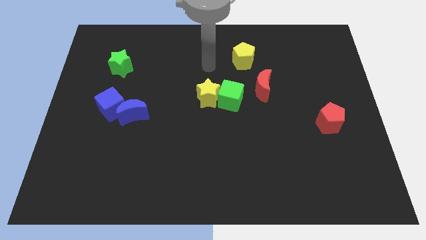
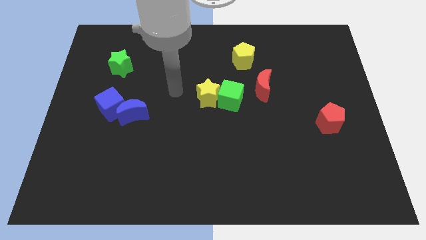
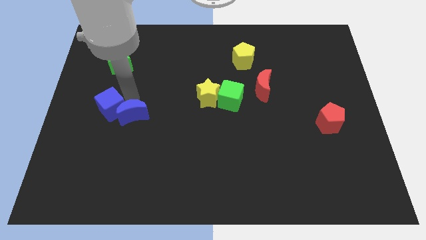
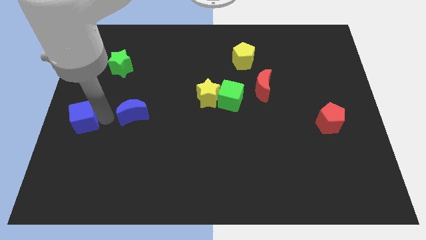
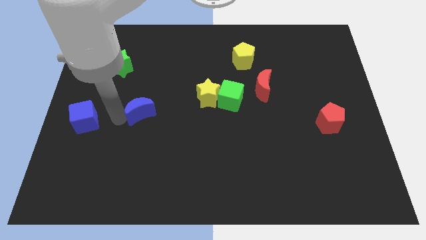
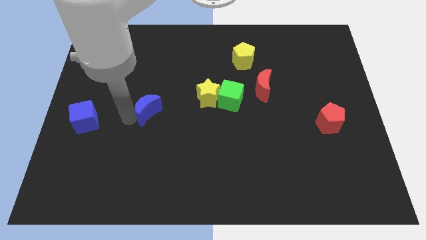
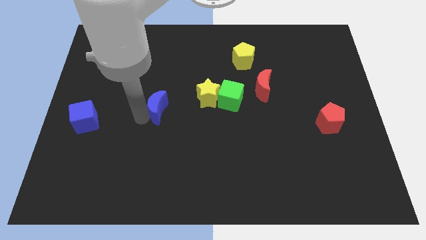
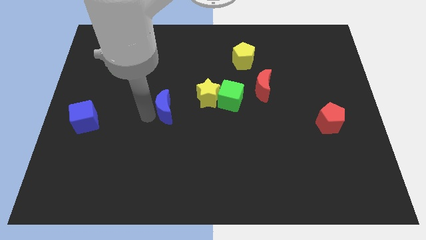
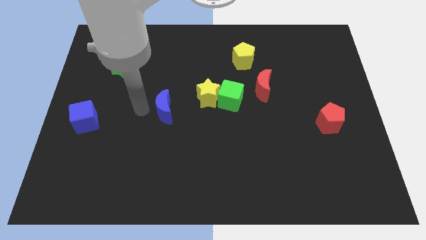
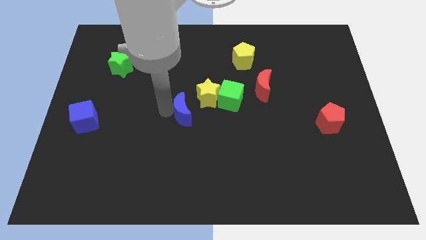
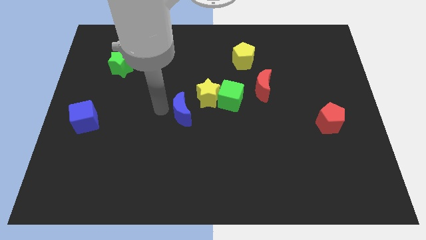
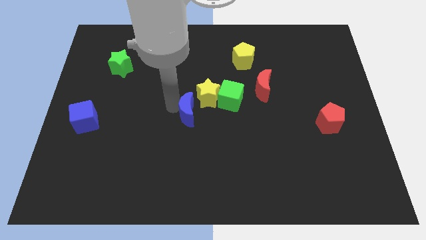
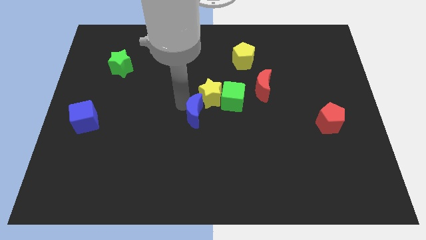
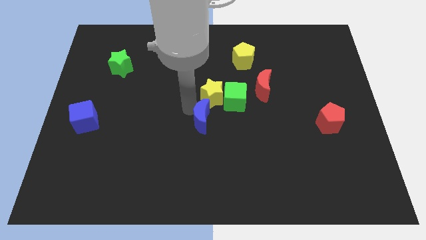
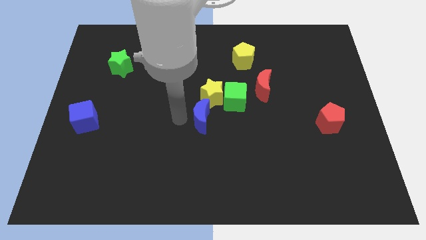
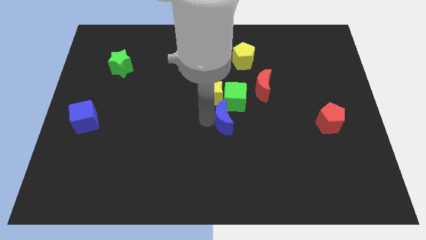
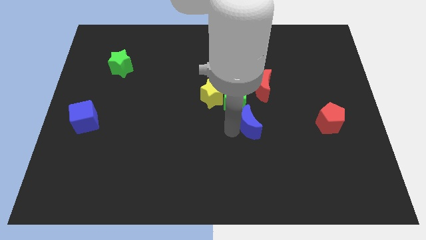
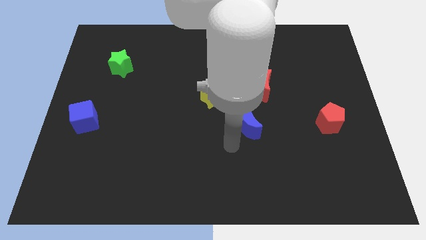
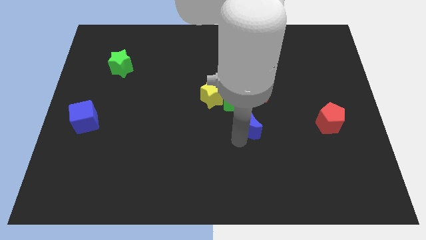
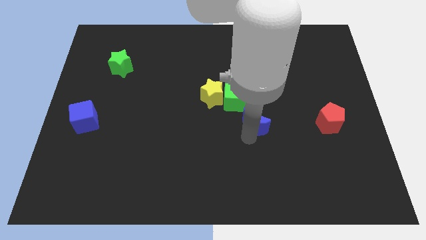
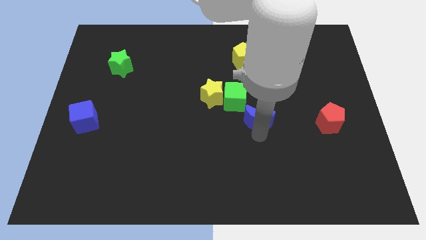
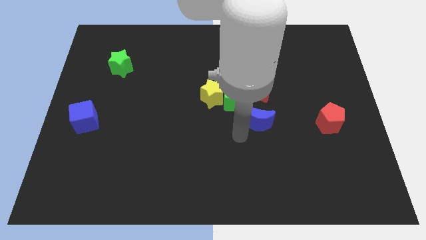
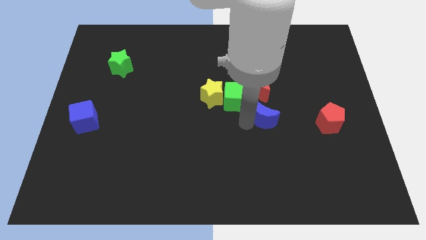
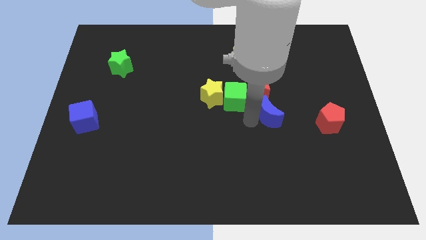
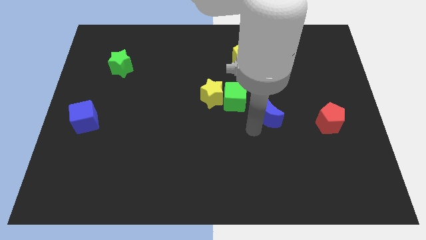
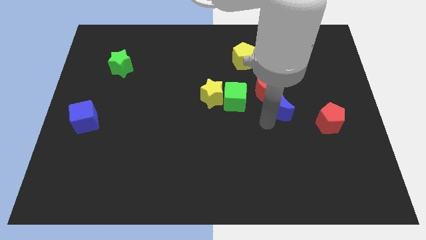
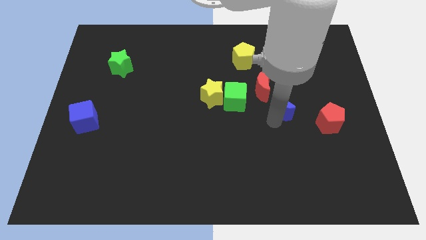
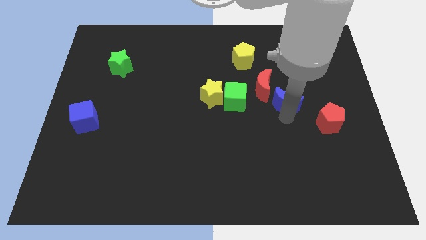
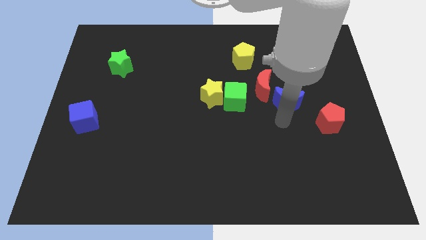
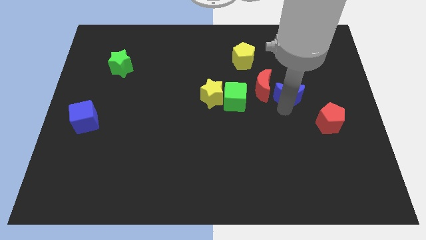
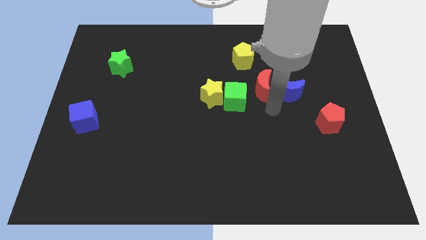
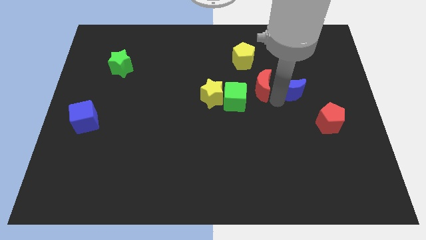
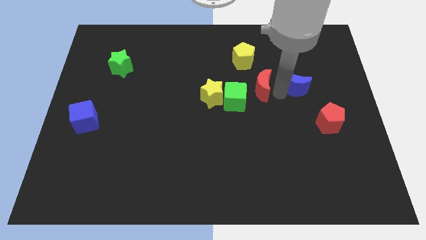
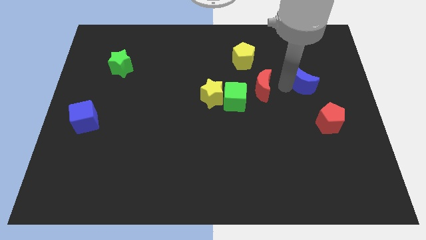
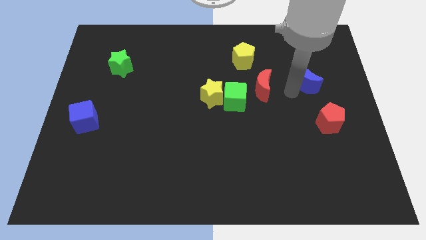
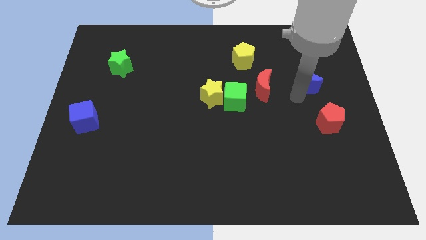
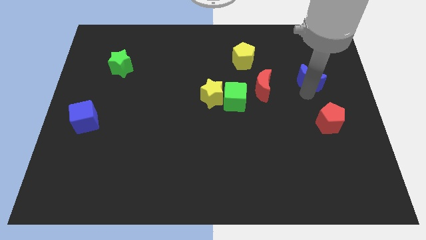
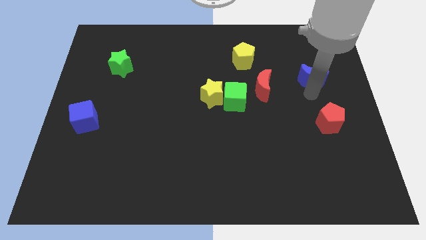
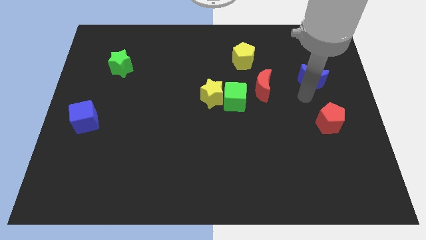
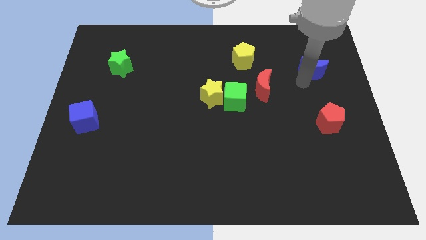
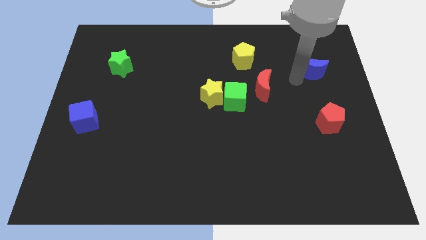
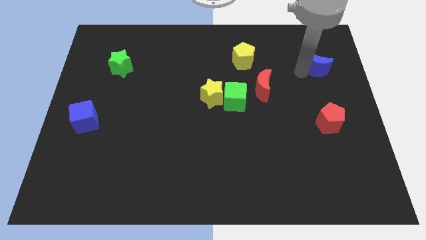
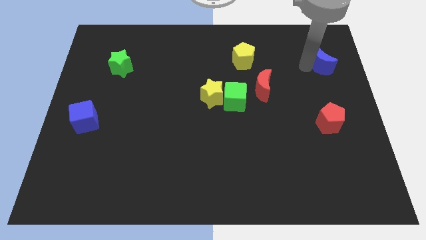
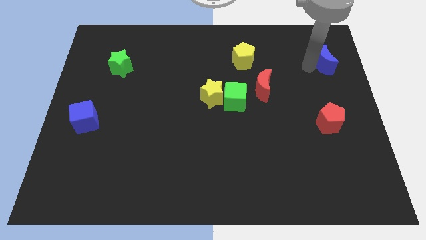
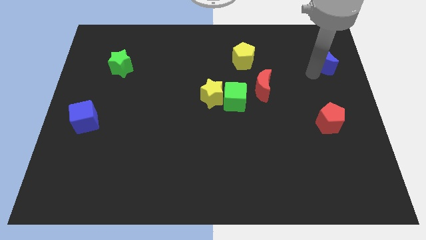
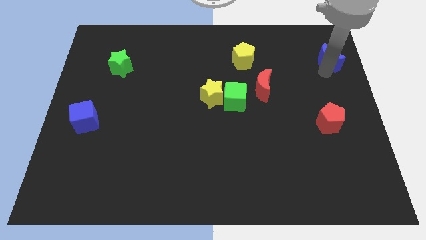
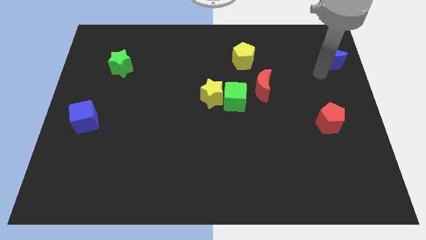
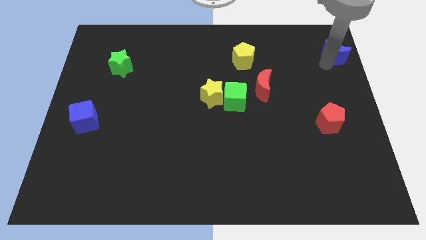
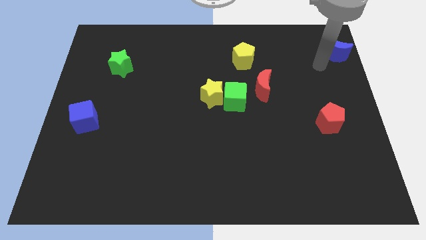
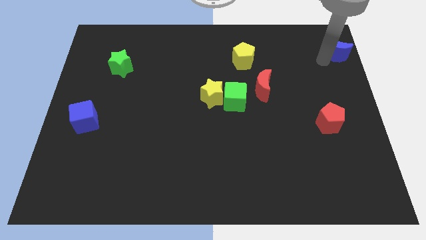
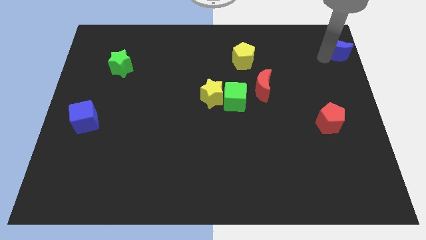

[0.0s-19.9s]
move the blue moon to the top right corner

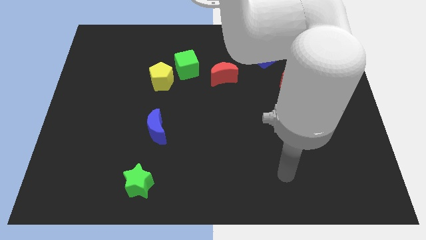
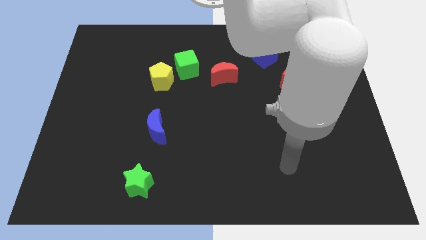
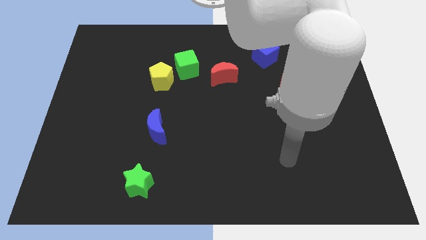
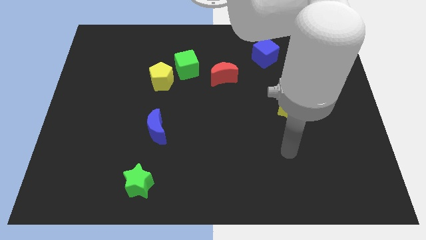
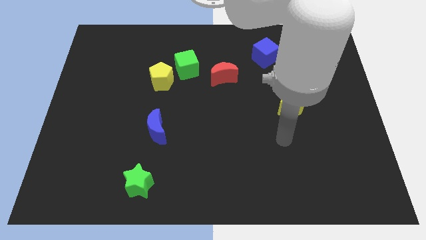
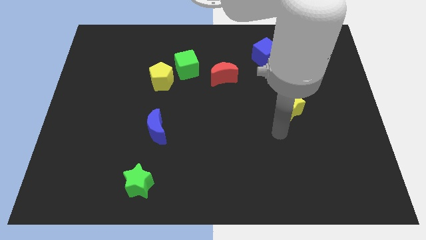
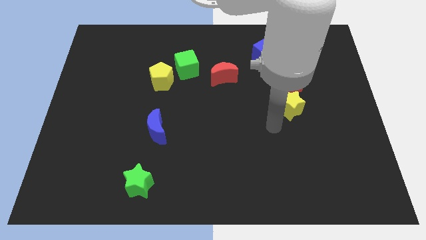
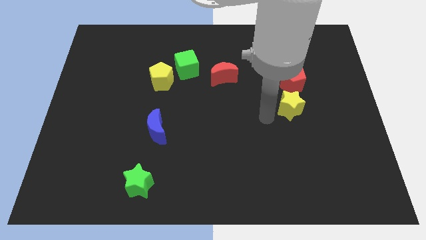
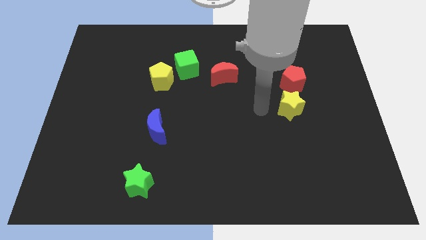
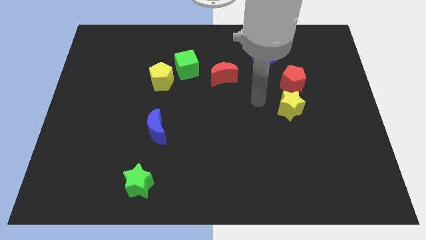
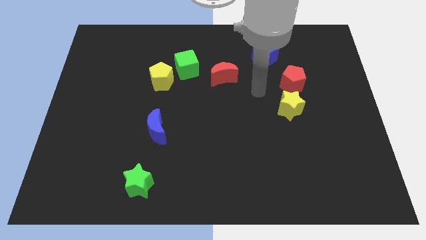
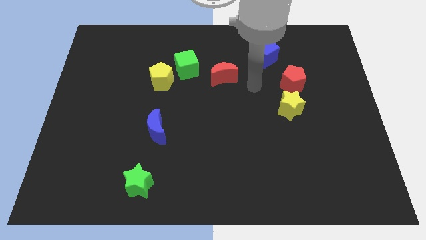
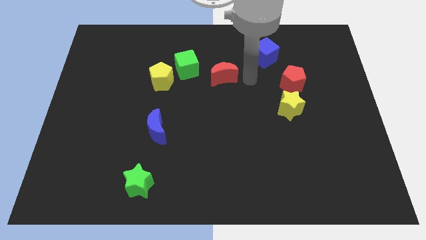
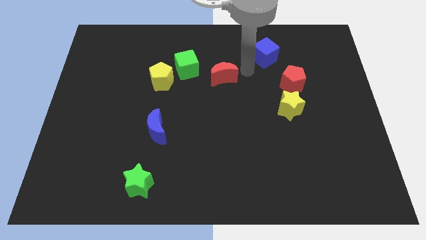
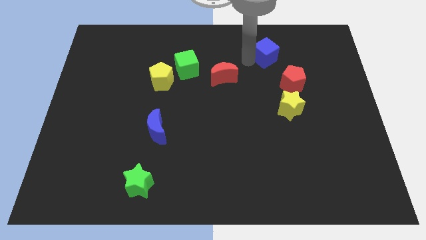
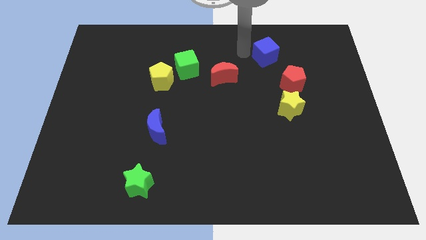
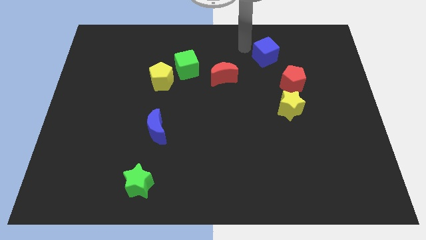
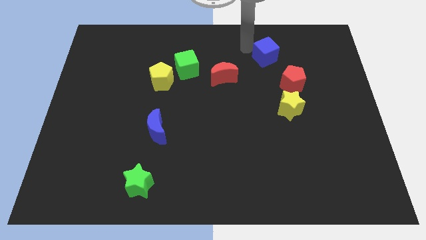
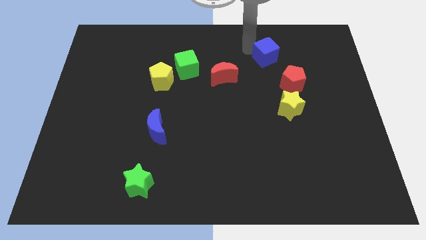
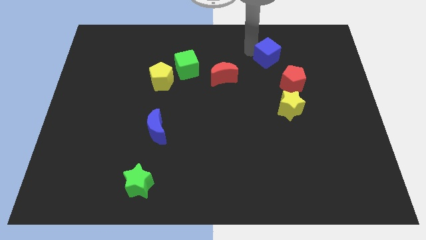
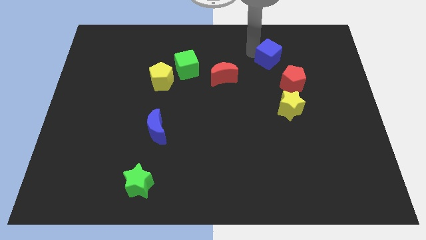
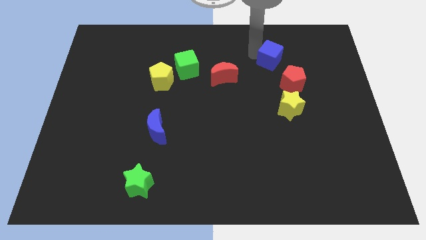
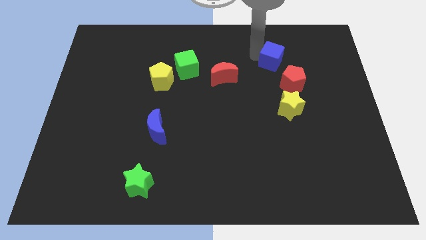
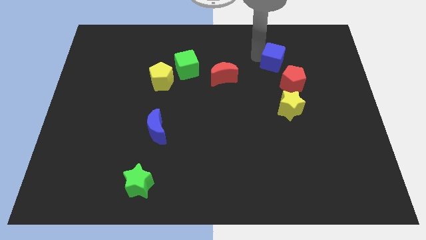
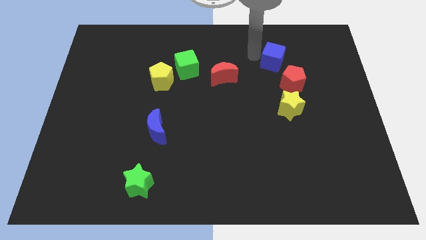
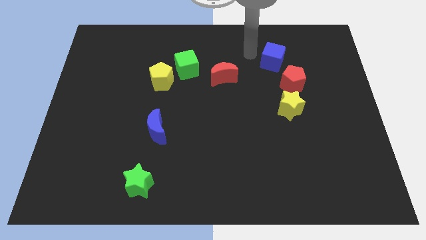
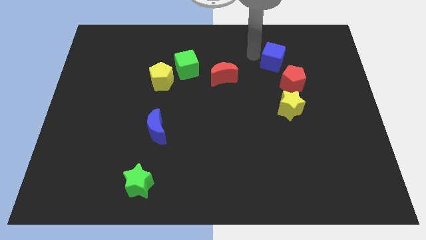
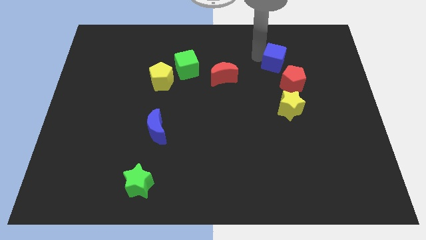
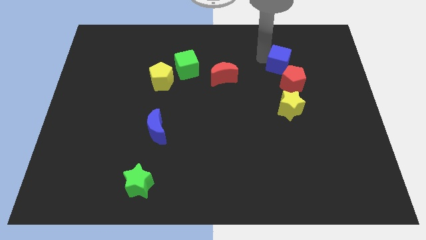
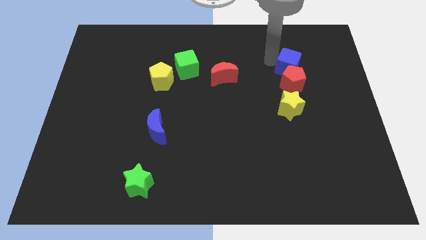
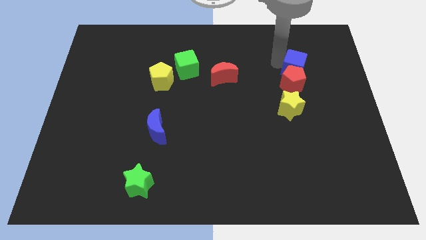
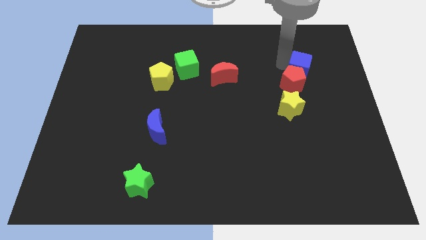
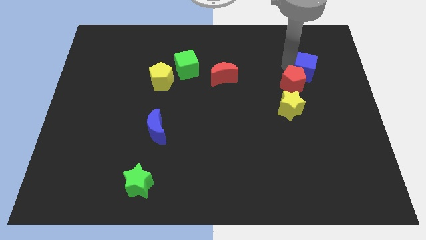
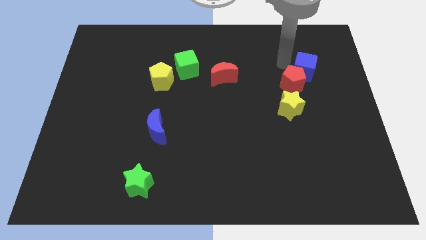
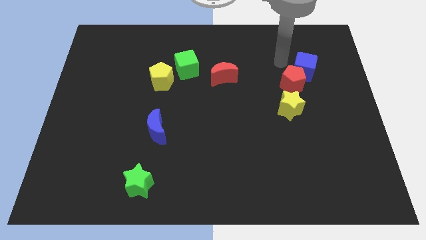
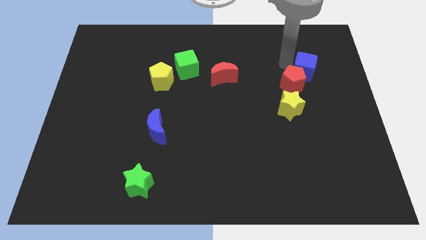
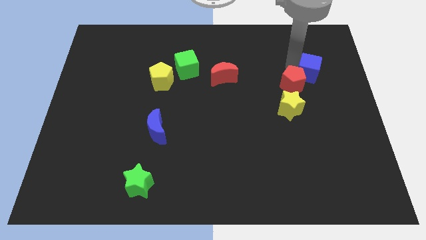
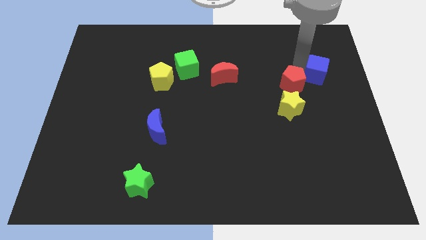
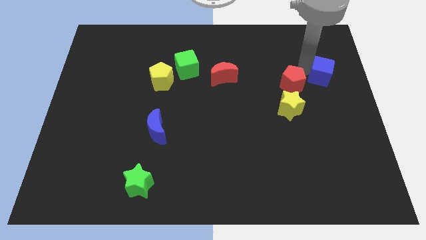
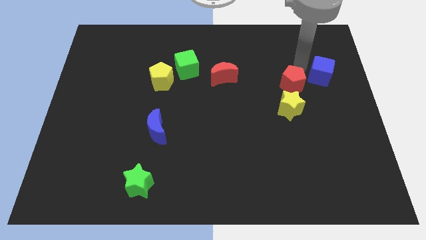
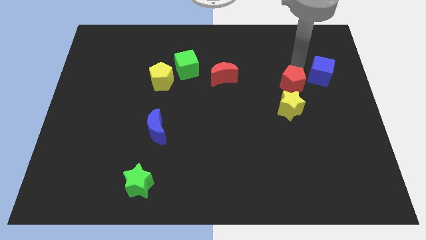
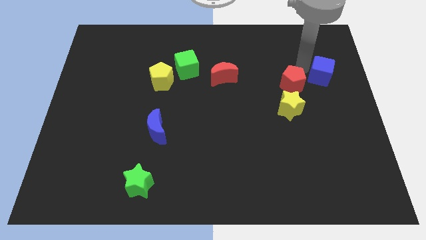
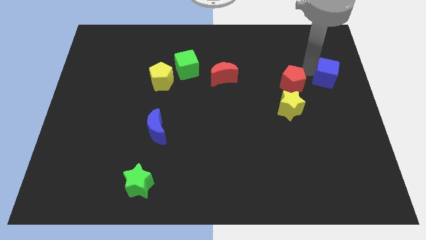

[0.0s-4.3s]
put the blue cube to the right side of the board
